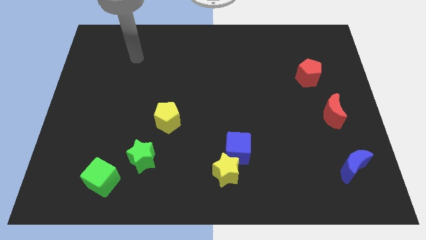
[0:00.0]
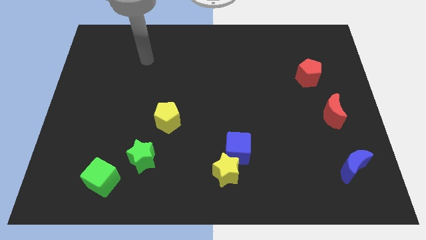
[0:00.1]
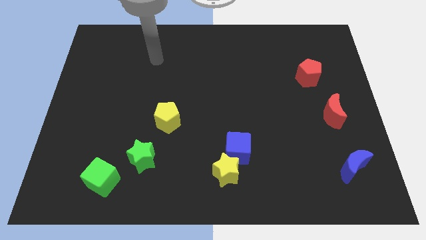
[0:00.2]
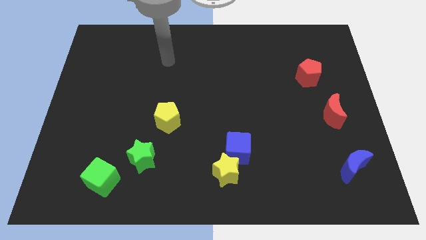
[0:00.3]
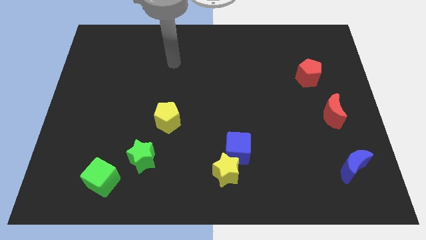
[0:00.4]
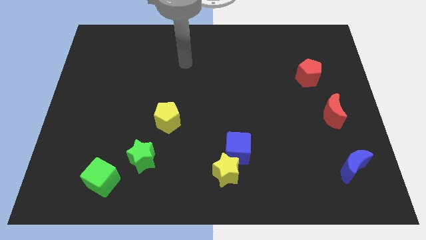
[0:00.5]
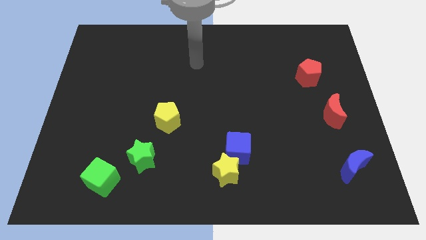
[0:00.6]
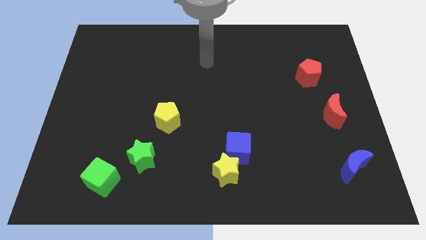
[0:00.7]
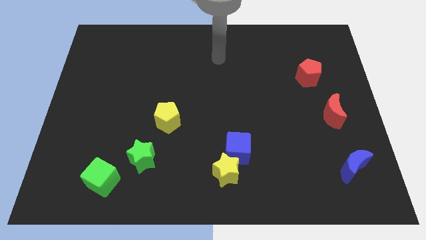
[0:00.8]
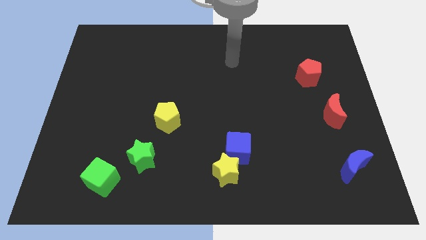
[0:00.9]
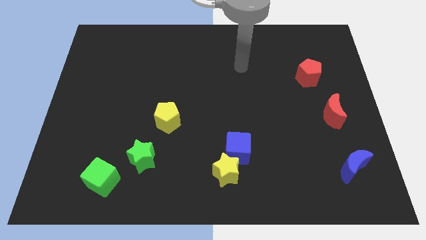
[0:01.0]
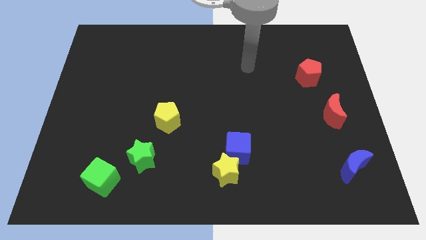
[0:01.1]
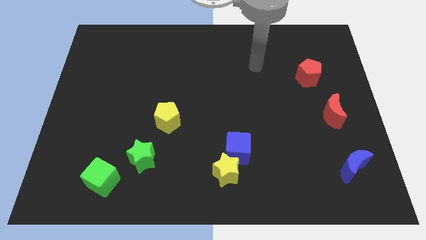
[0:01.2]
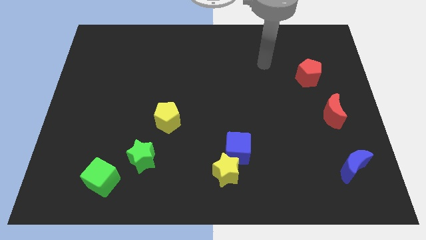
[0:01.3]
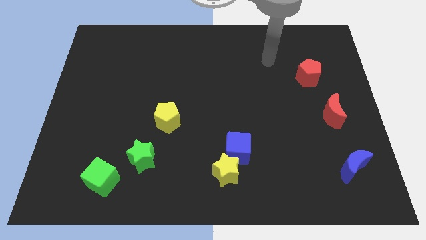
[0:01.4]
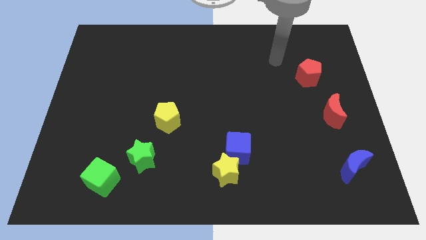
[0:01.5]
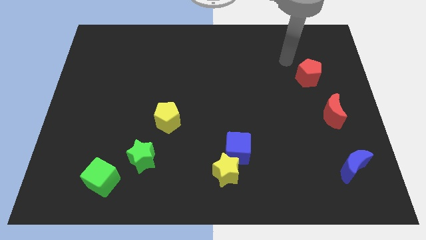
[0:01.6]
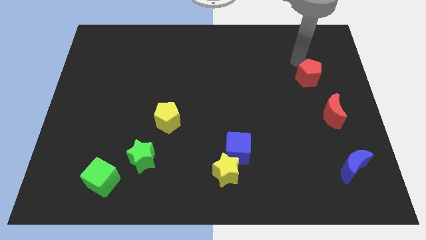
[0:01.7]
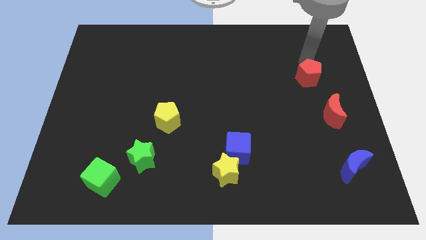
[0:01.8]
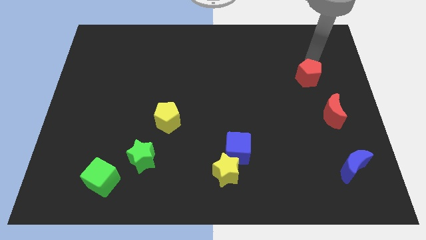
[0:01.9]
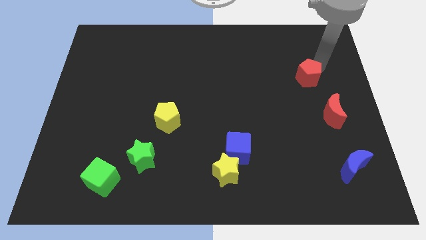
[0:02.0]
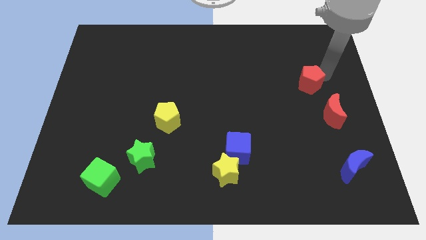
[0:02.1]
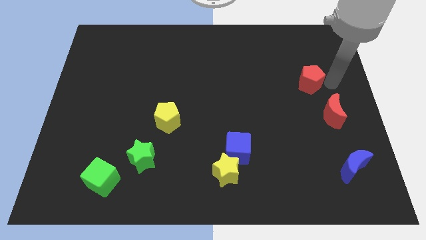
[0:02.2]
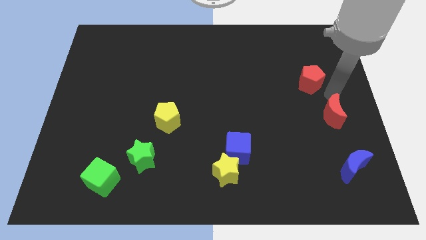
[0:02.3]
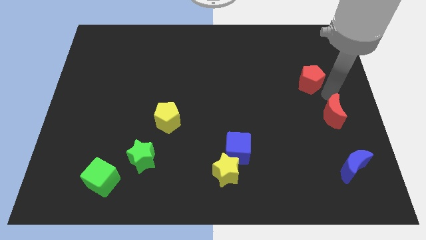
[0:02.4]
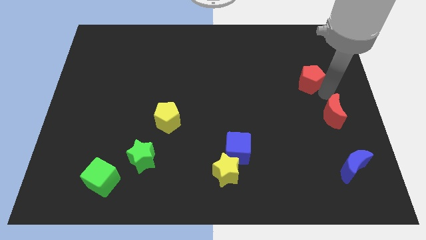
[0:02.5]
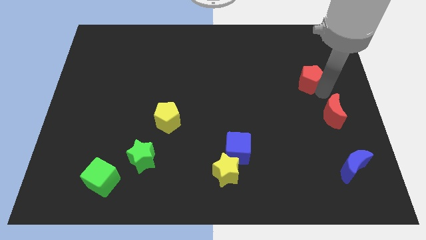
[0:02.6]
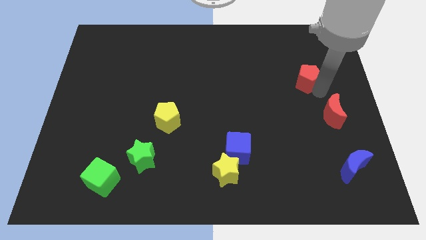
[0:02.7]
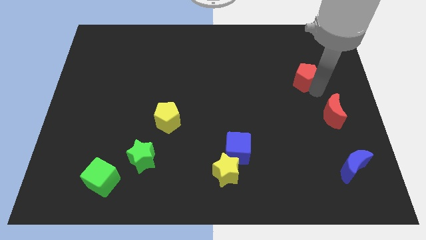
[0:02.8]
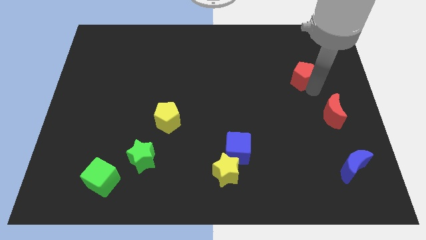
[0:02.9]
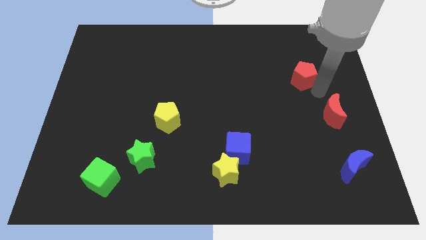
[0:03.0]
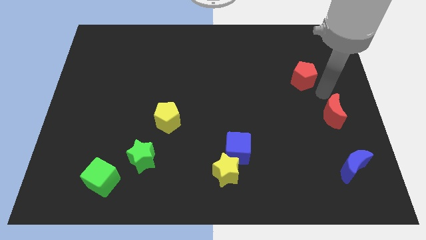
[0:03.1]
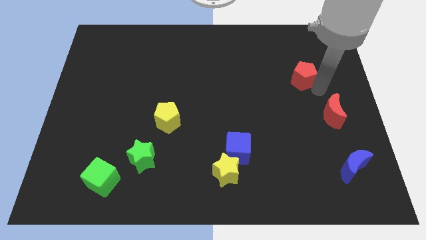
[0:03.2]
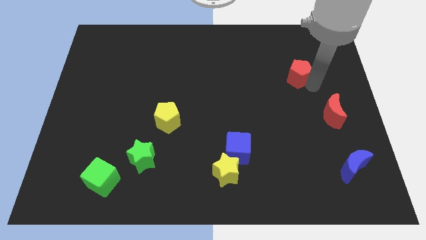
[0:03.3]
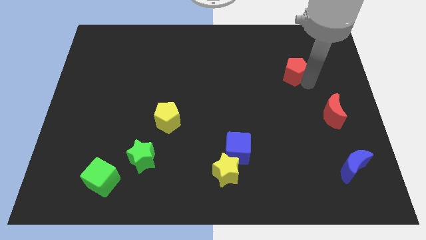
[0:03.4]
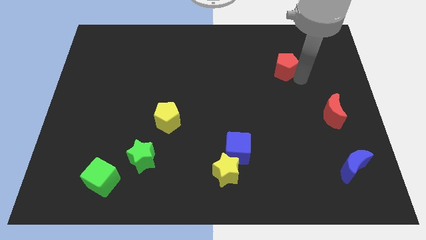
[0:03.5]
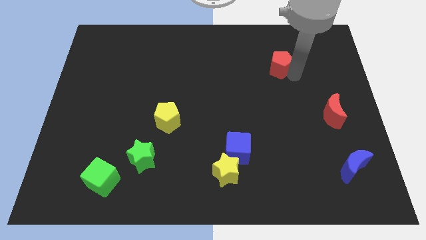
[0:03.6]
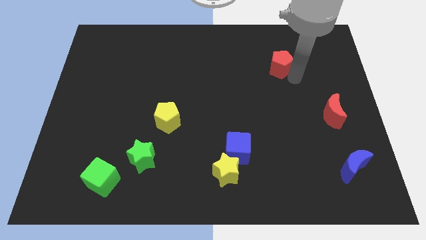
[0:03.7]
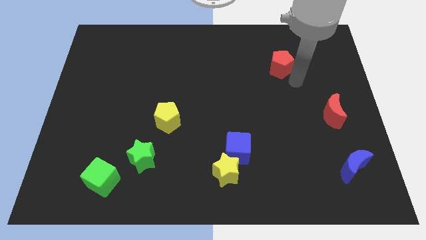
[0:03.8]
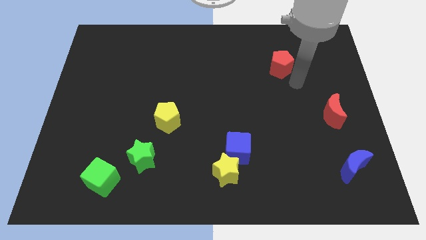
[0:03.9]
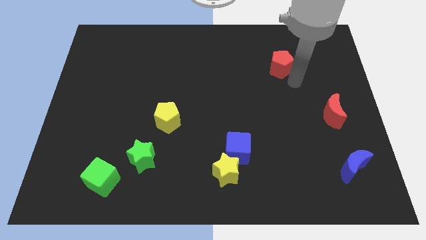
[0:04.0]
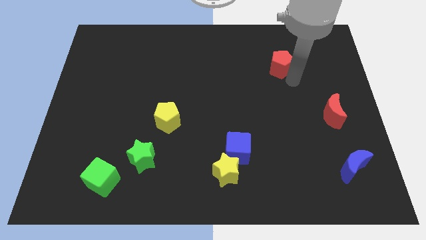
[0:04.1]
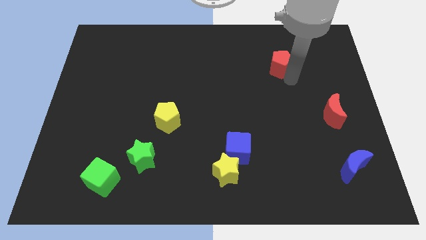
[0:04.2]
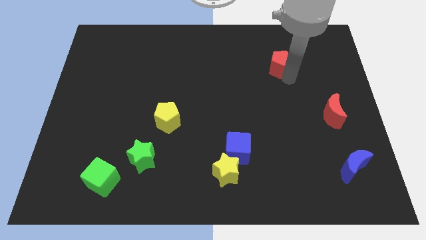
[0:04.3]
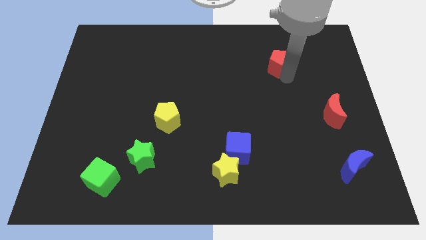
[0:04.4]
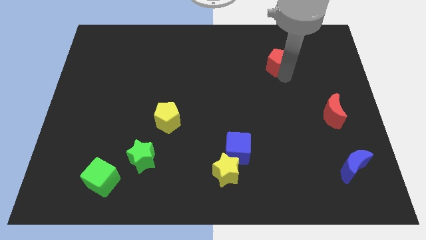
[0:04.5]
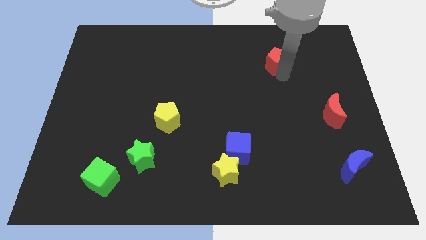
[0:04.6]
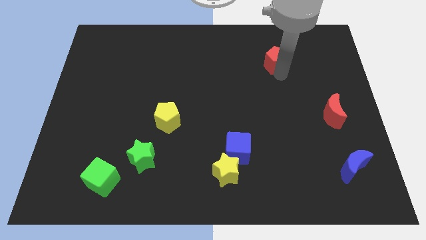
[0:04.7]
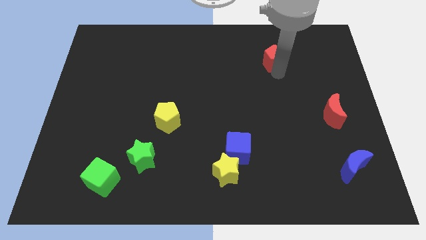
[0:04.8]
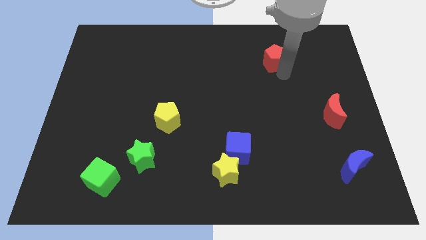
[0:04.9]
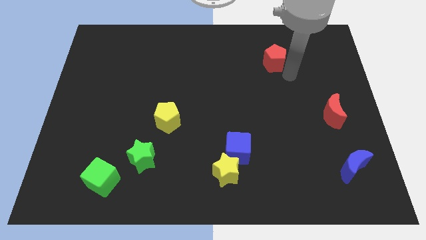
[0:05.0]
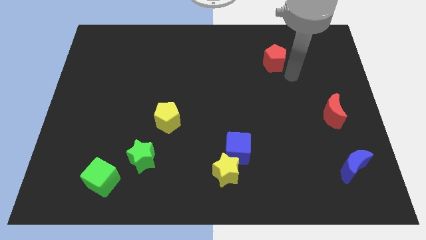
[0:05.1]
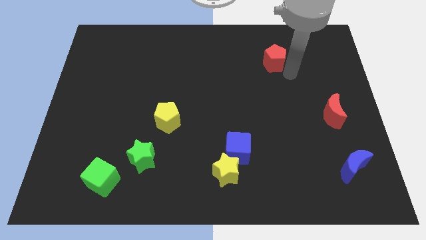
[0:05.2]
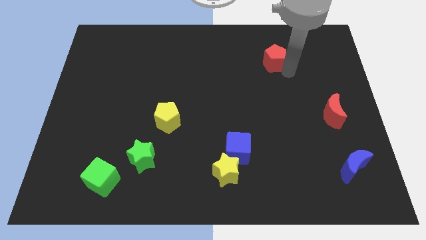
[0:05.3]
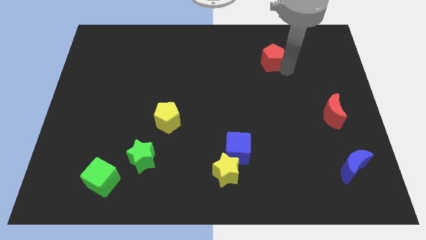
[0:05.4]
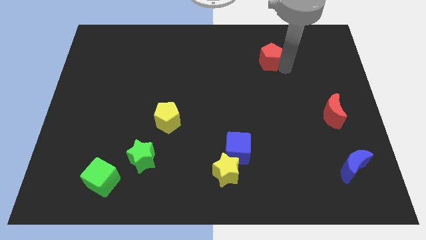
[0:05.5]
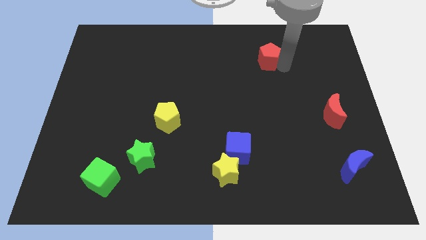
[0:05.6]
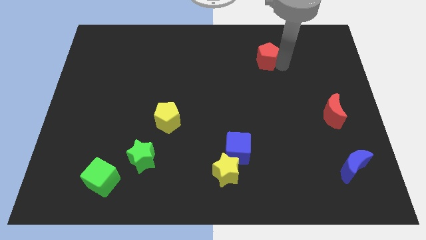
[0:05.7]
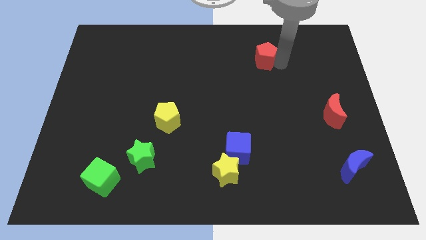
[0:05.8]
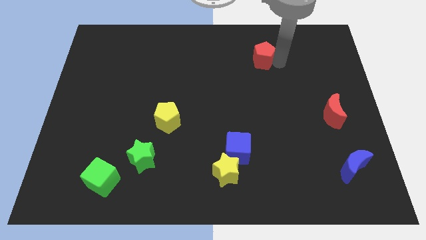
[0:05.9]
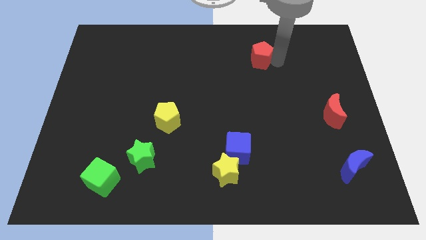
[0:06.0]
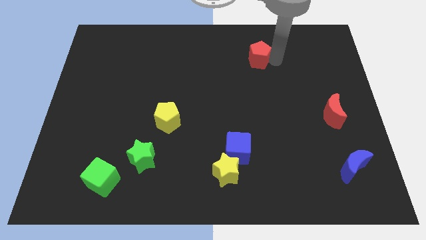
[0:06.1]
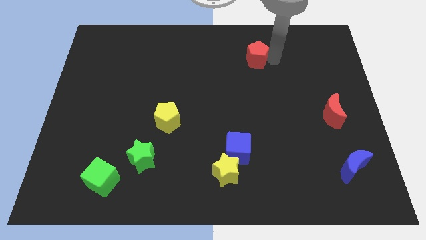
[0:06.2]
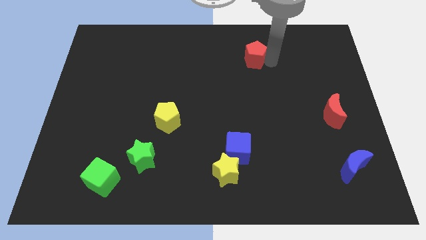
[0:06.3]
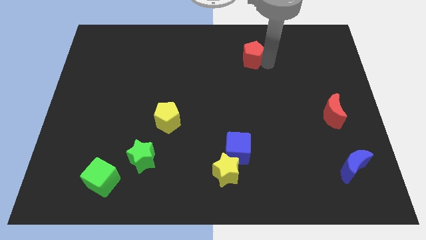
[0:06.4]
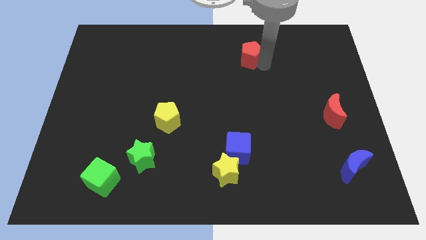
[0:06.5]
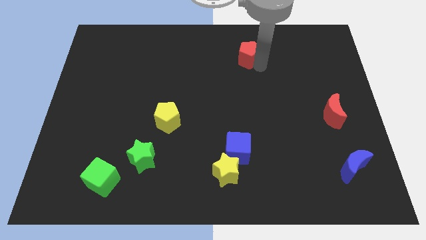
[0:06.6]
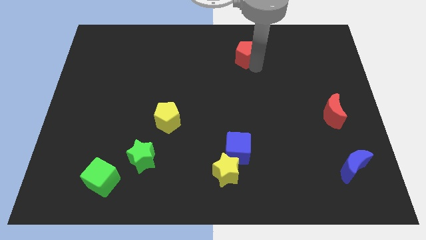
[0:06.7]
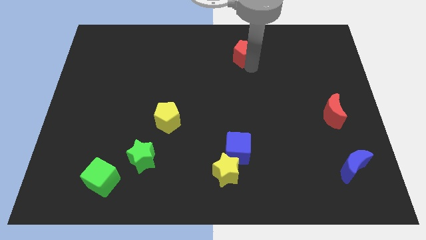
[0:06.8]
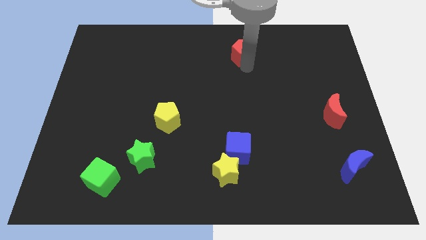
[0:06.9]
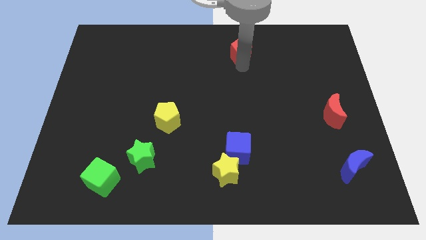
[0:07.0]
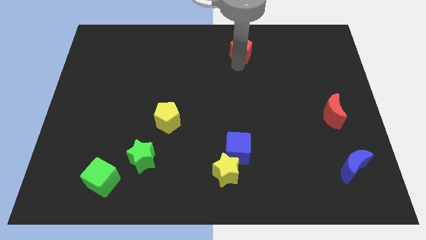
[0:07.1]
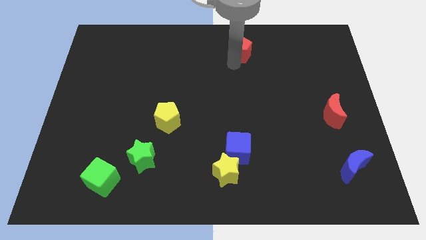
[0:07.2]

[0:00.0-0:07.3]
slide the red pentagon to the towards your base
